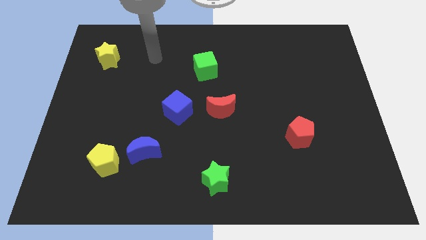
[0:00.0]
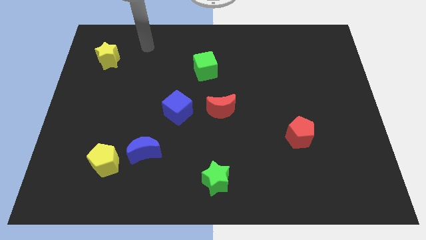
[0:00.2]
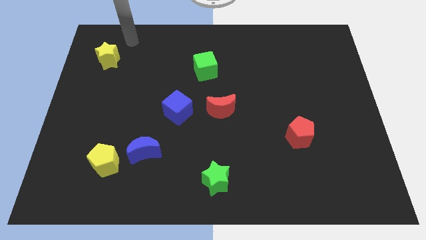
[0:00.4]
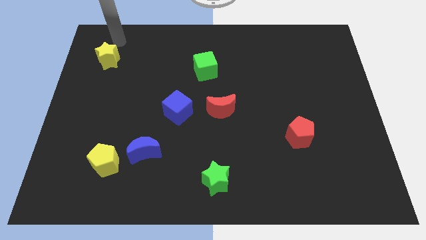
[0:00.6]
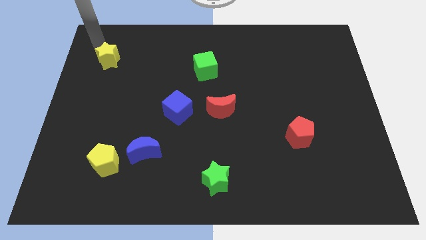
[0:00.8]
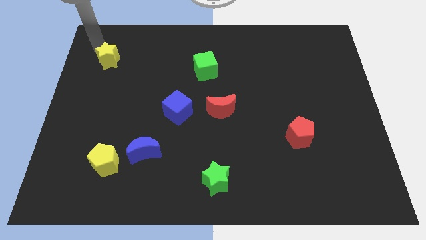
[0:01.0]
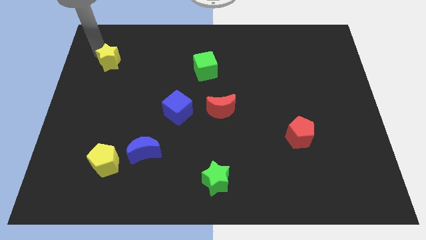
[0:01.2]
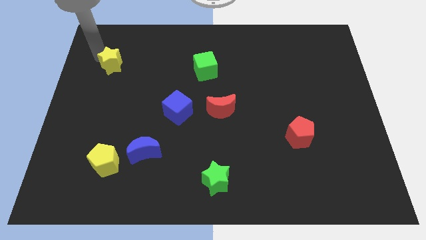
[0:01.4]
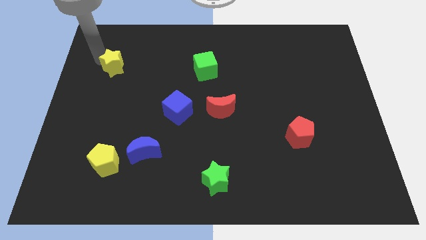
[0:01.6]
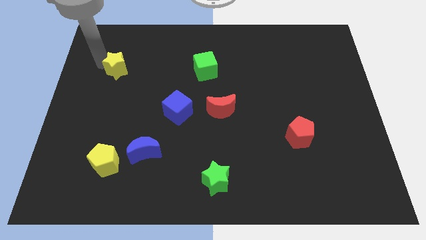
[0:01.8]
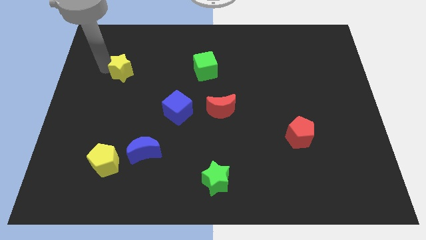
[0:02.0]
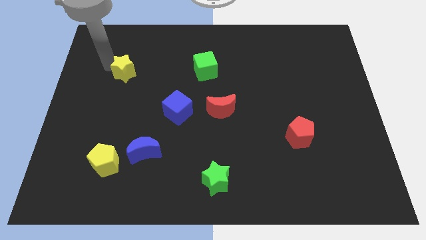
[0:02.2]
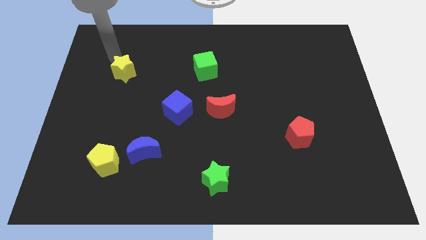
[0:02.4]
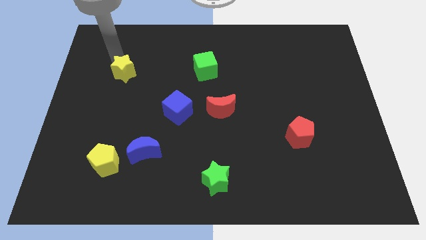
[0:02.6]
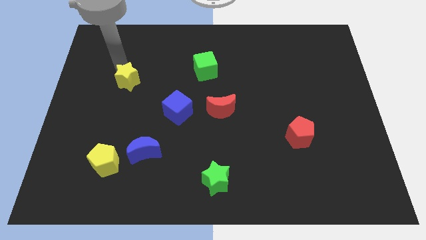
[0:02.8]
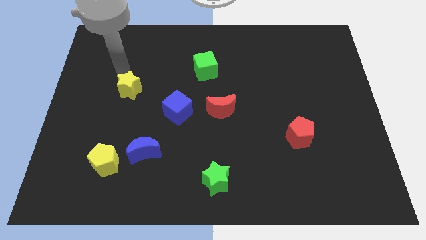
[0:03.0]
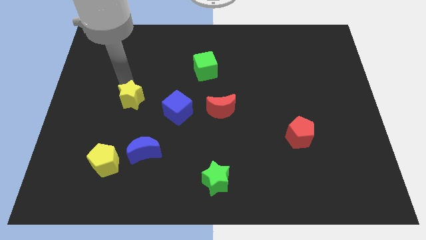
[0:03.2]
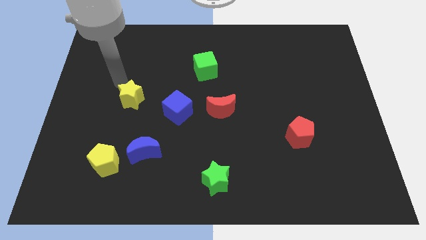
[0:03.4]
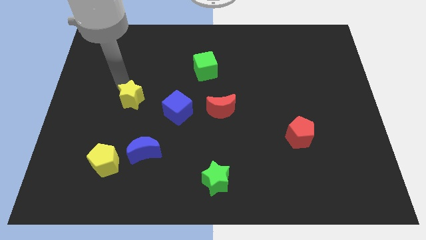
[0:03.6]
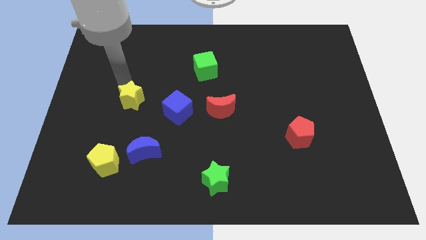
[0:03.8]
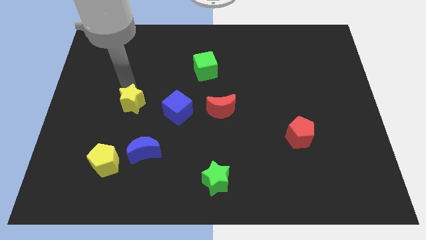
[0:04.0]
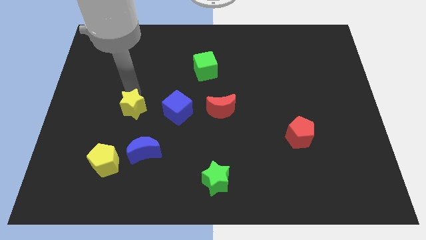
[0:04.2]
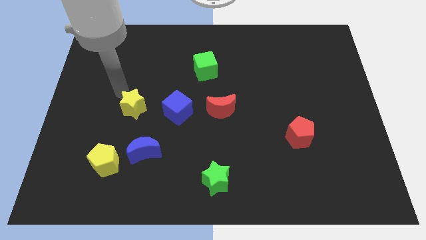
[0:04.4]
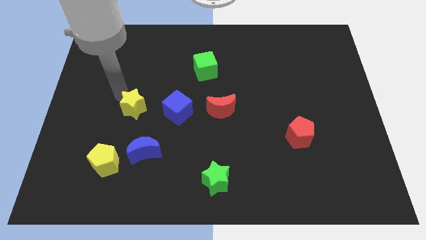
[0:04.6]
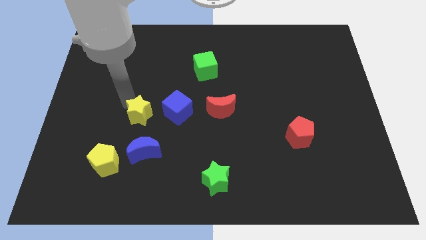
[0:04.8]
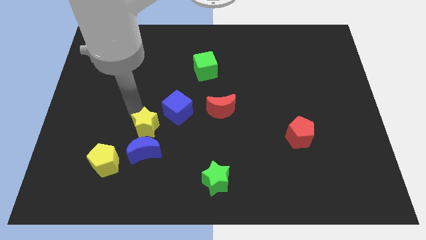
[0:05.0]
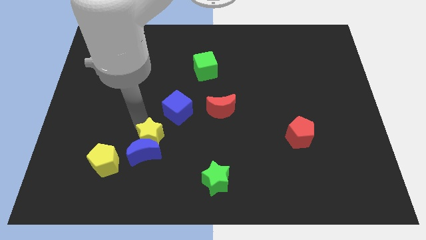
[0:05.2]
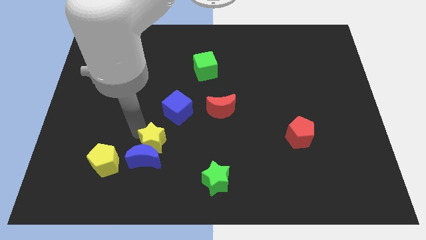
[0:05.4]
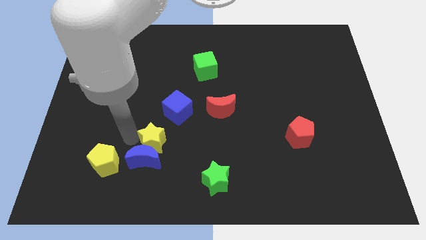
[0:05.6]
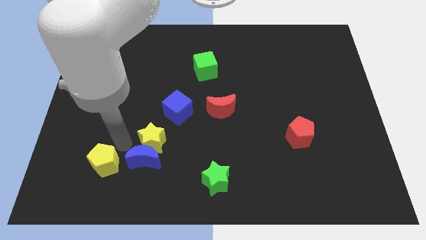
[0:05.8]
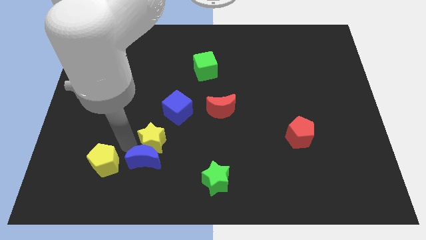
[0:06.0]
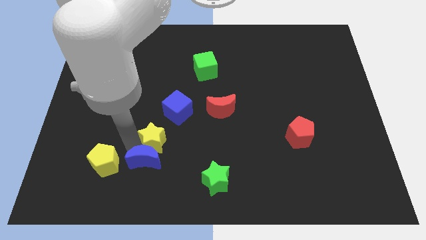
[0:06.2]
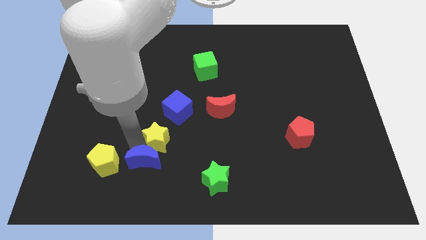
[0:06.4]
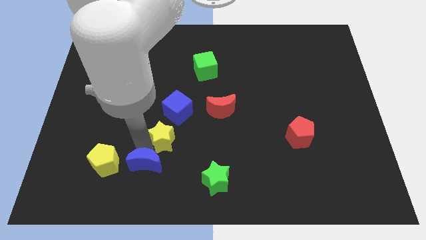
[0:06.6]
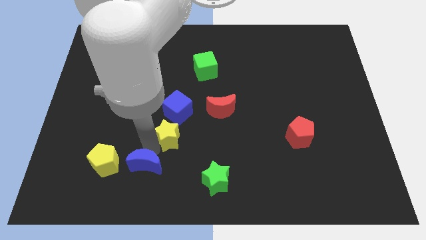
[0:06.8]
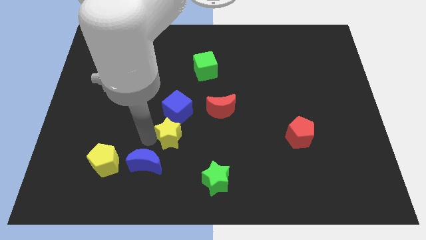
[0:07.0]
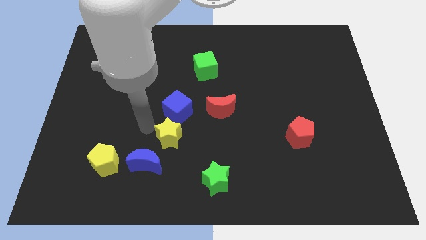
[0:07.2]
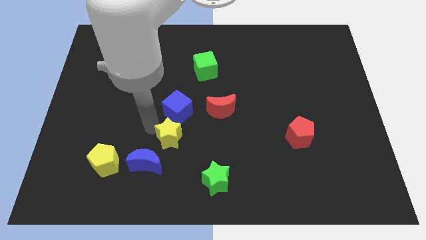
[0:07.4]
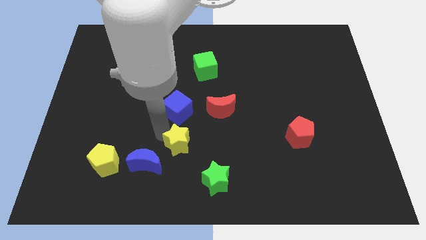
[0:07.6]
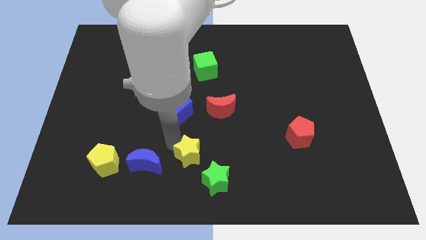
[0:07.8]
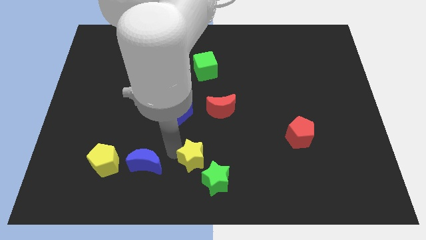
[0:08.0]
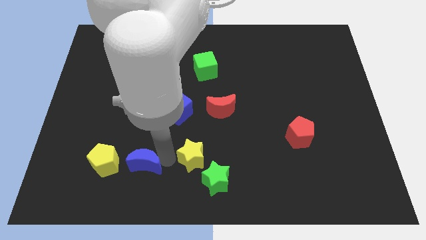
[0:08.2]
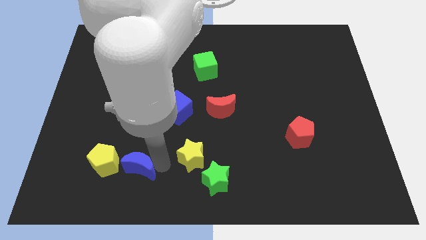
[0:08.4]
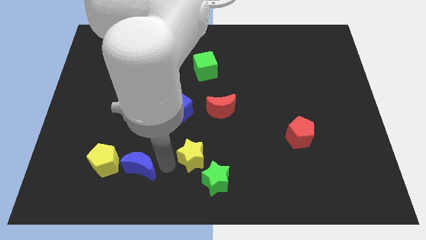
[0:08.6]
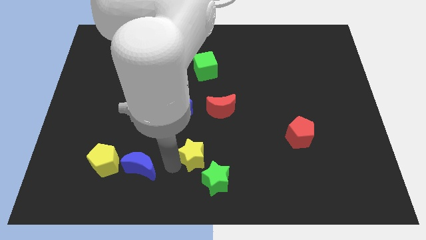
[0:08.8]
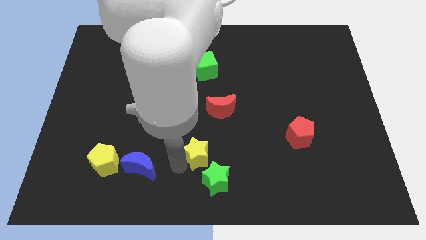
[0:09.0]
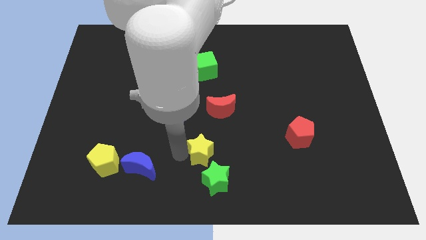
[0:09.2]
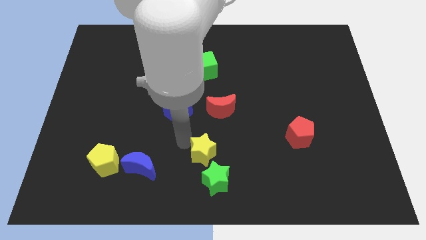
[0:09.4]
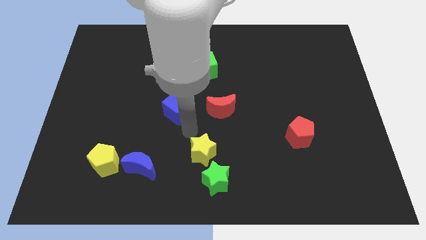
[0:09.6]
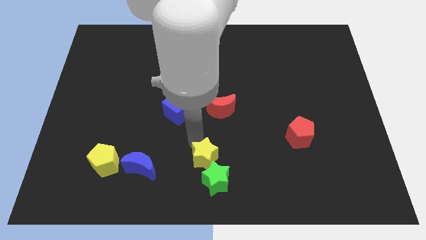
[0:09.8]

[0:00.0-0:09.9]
slide the yellow star towards the green star

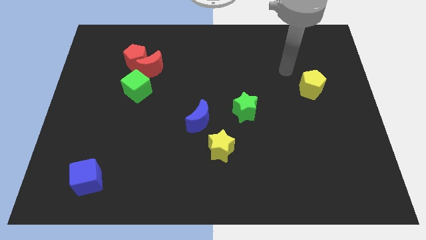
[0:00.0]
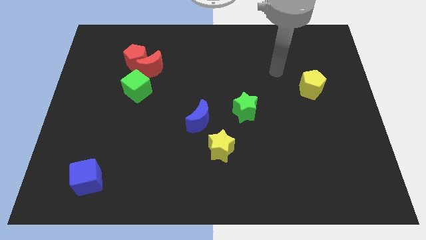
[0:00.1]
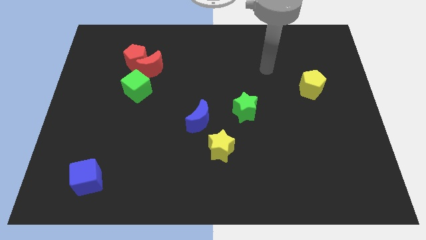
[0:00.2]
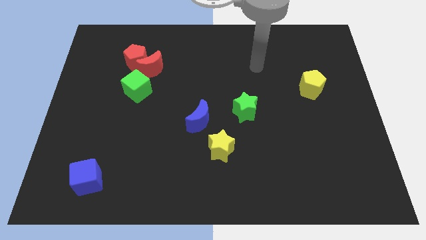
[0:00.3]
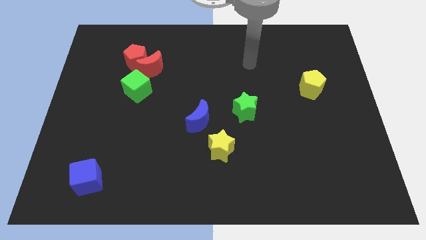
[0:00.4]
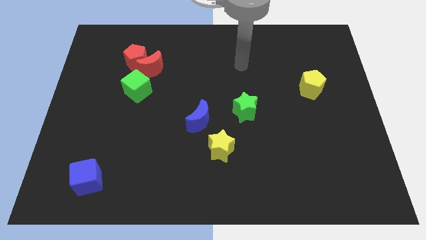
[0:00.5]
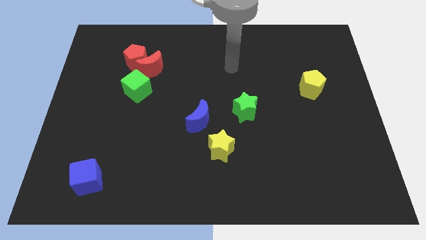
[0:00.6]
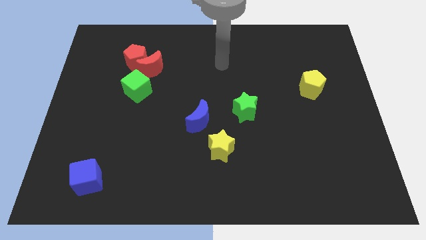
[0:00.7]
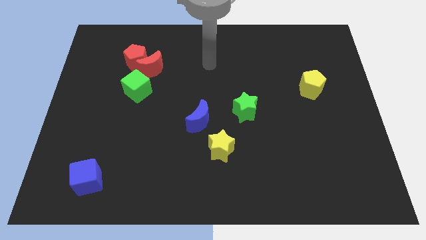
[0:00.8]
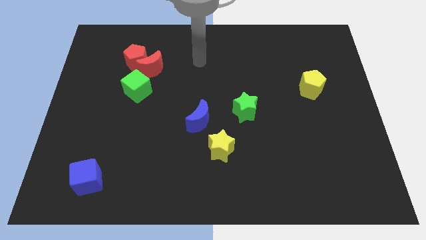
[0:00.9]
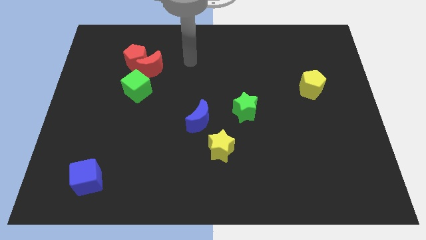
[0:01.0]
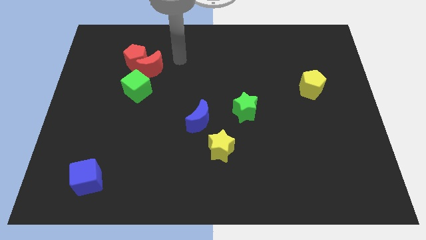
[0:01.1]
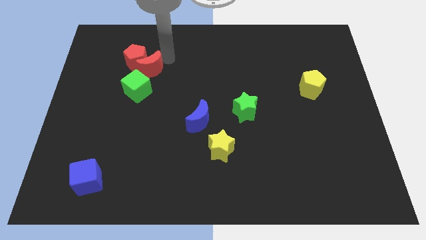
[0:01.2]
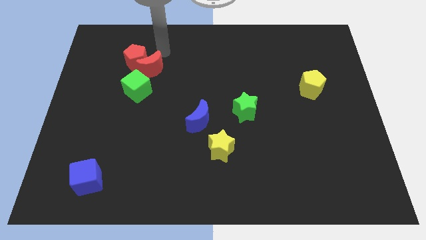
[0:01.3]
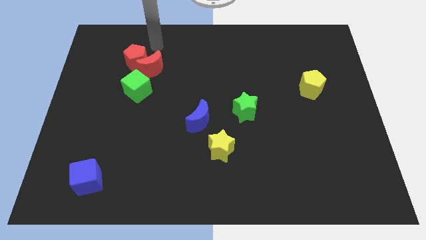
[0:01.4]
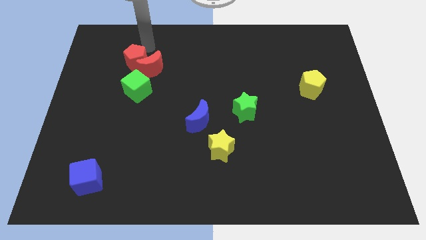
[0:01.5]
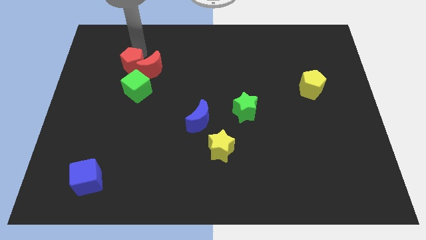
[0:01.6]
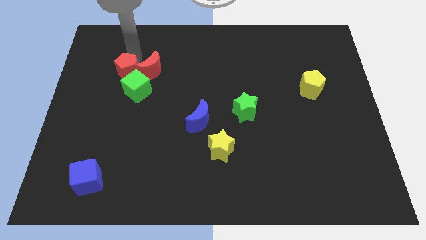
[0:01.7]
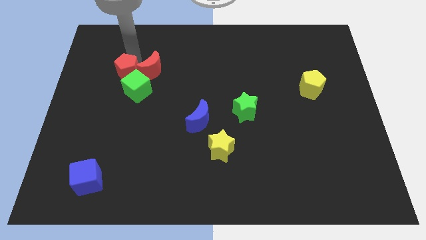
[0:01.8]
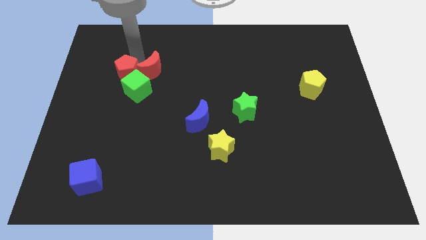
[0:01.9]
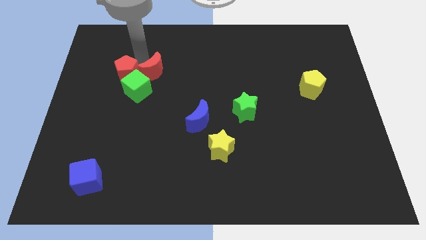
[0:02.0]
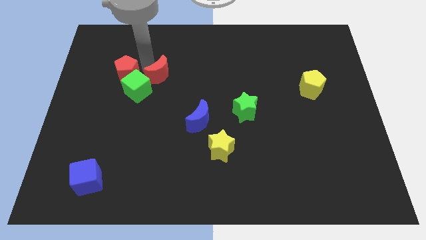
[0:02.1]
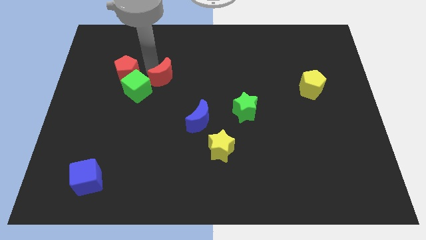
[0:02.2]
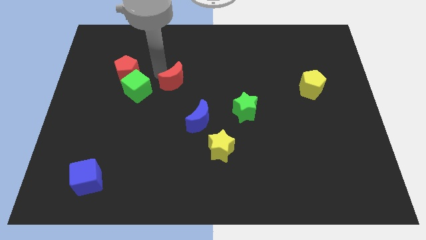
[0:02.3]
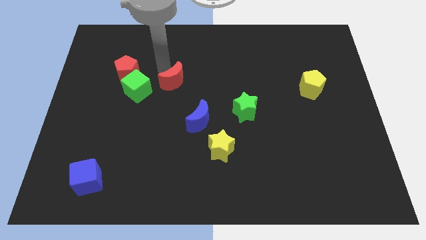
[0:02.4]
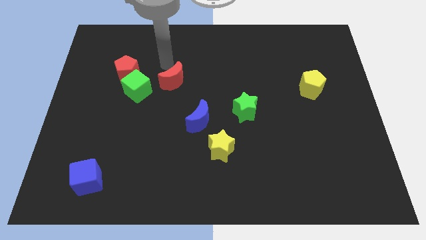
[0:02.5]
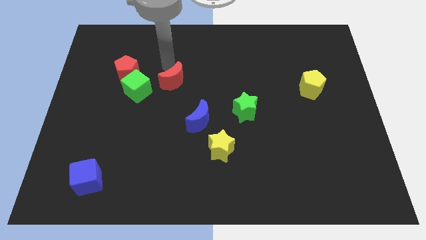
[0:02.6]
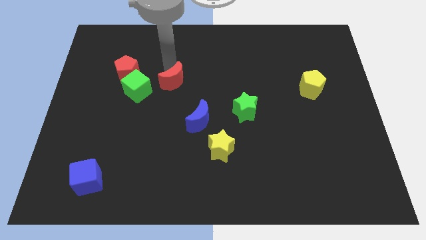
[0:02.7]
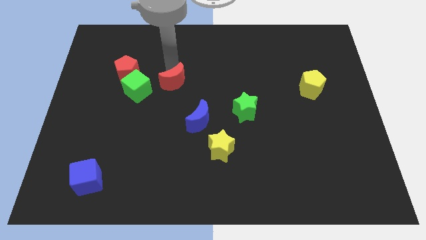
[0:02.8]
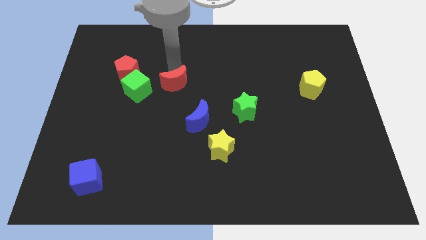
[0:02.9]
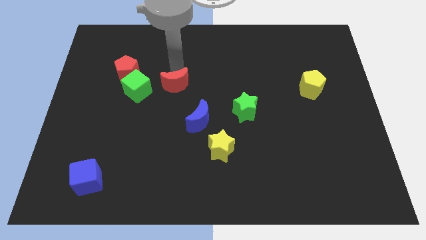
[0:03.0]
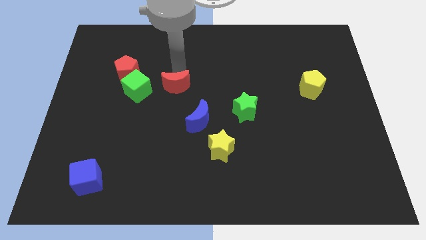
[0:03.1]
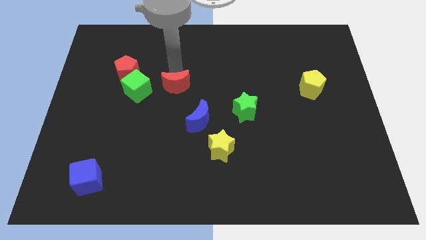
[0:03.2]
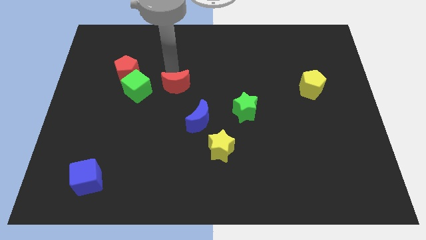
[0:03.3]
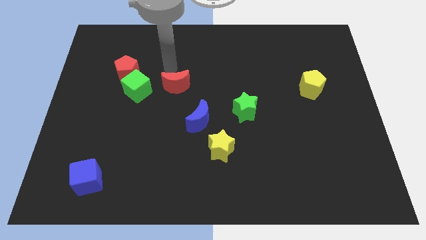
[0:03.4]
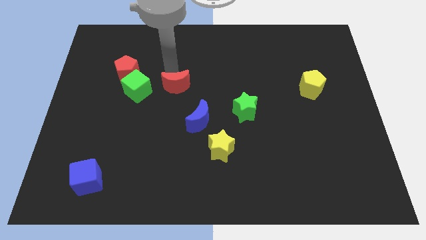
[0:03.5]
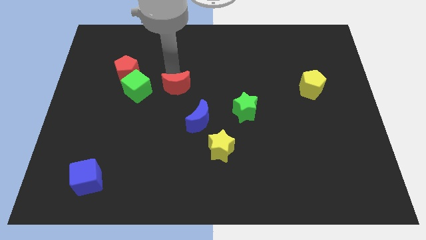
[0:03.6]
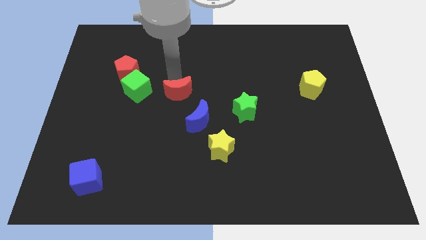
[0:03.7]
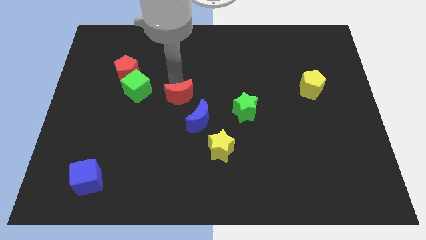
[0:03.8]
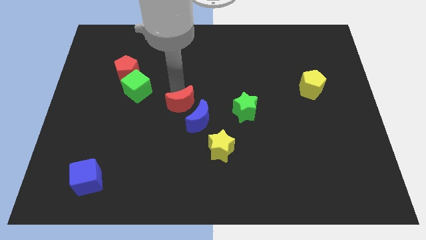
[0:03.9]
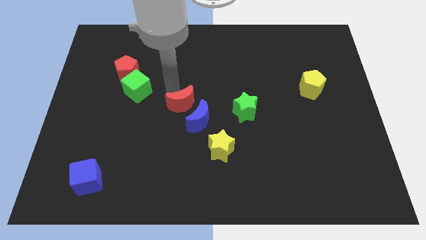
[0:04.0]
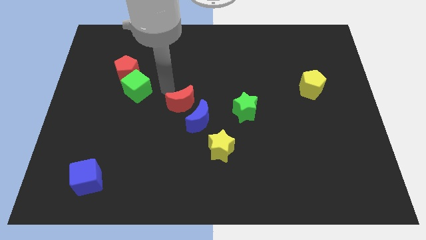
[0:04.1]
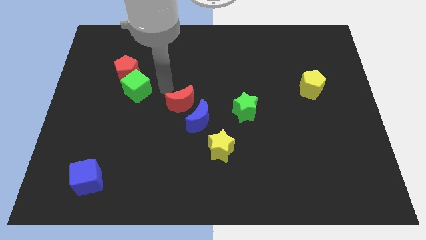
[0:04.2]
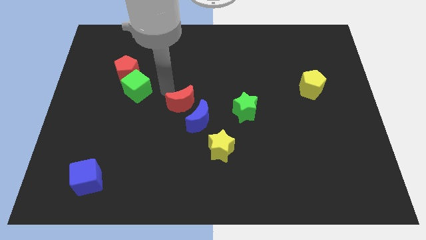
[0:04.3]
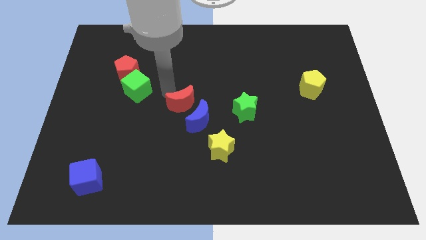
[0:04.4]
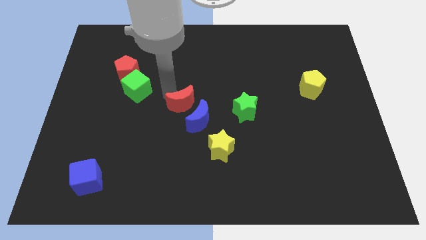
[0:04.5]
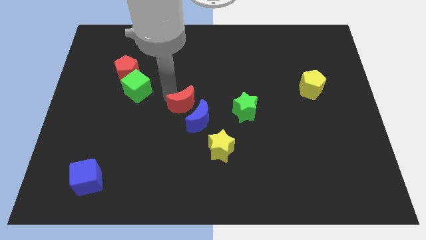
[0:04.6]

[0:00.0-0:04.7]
move the red moon to the blue moon
